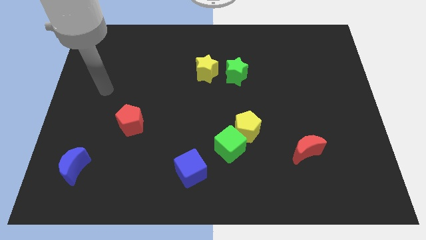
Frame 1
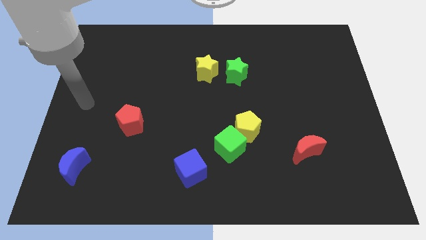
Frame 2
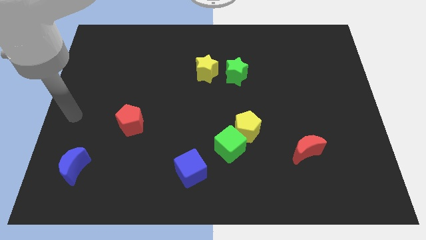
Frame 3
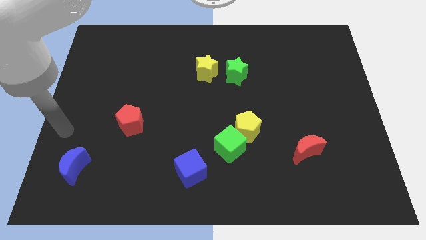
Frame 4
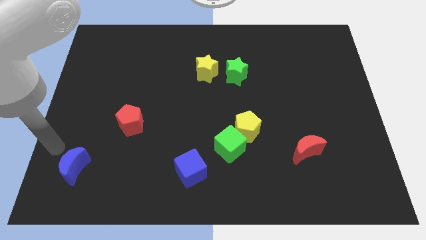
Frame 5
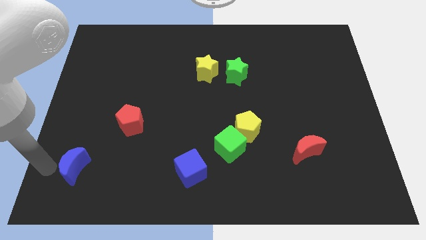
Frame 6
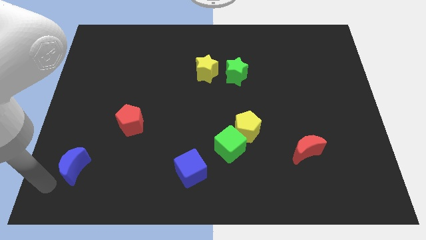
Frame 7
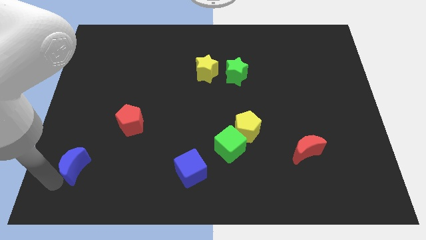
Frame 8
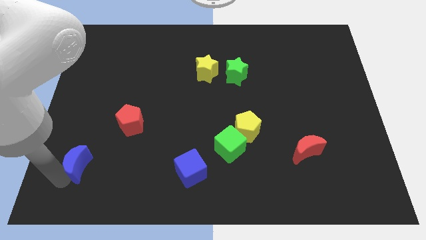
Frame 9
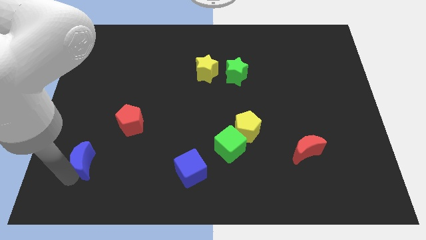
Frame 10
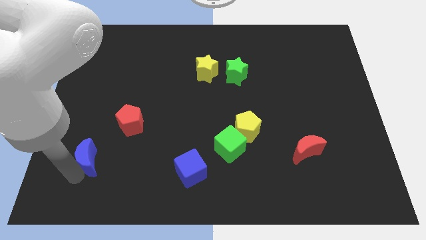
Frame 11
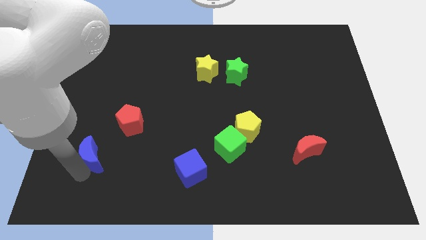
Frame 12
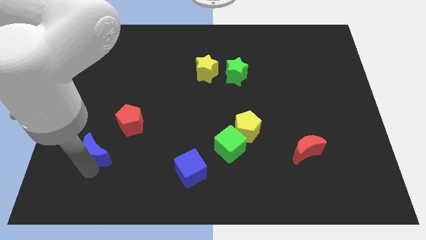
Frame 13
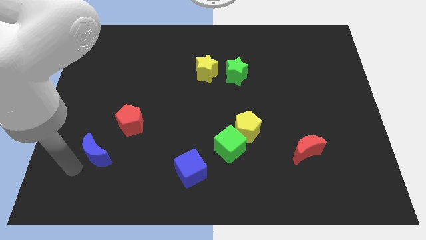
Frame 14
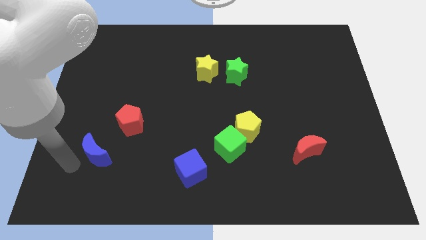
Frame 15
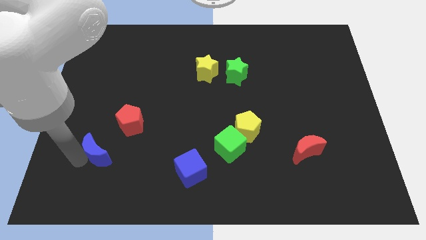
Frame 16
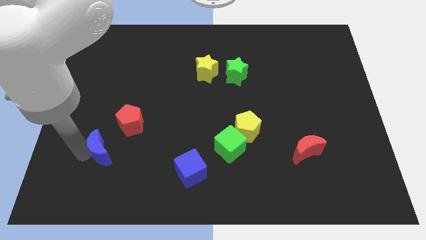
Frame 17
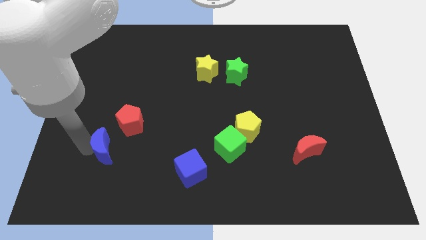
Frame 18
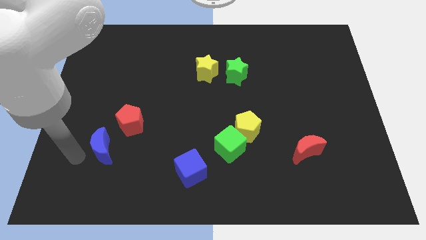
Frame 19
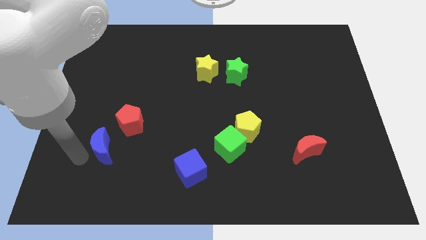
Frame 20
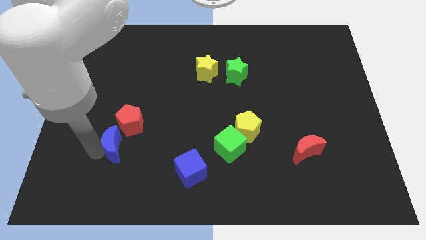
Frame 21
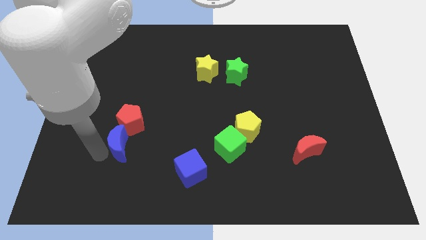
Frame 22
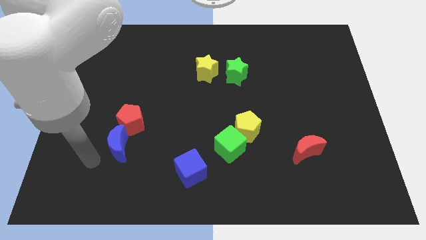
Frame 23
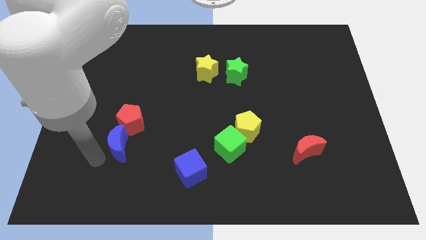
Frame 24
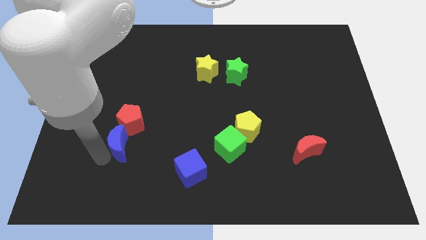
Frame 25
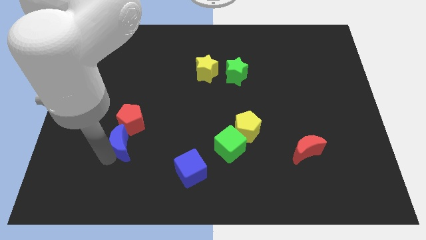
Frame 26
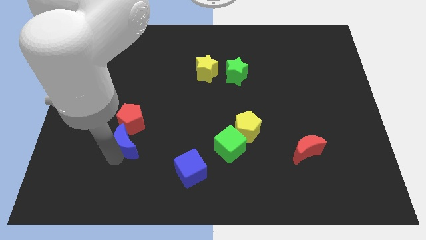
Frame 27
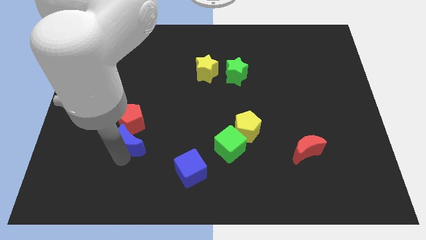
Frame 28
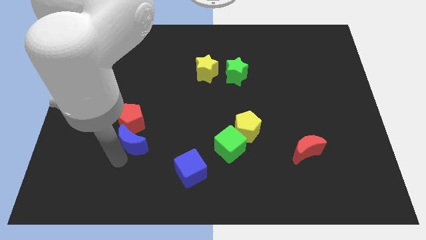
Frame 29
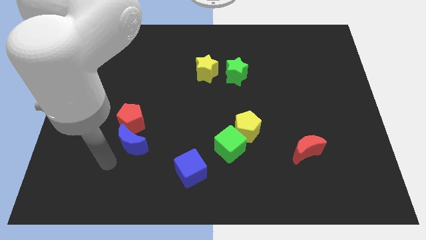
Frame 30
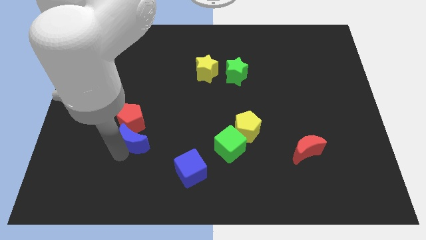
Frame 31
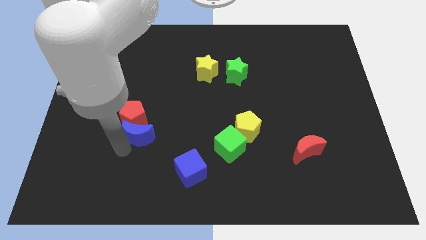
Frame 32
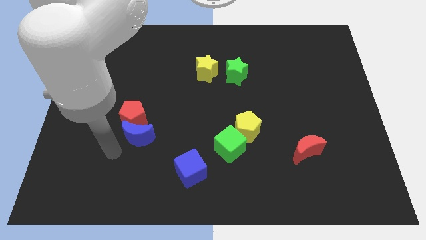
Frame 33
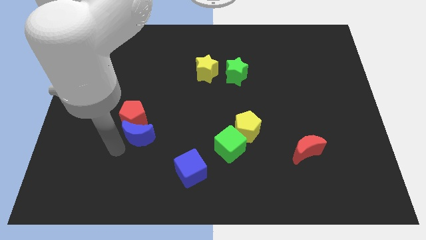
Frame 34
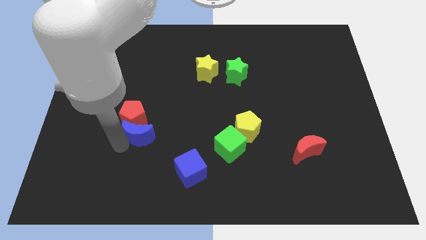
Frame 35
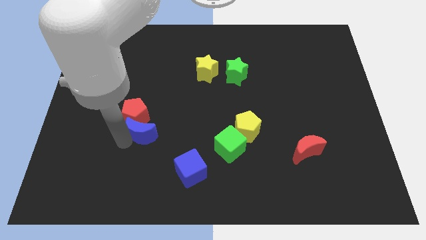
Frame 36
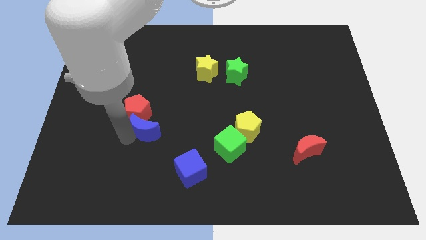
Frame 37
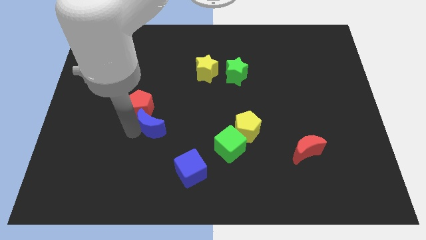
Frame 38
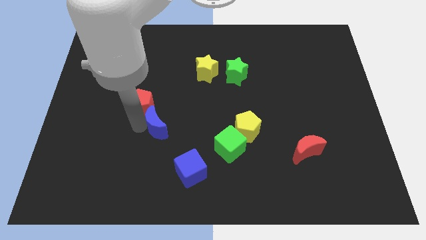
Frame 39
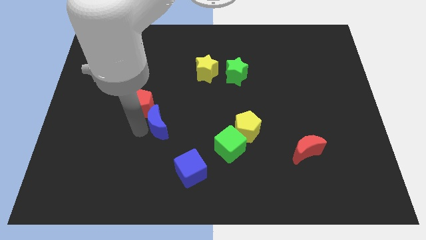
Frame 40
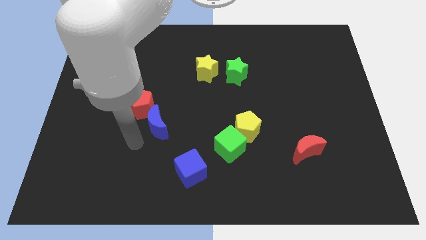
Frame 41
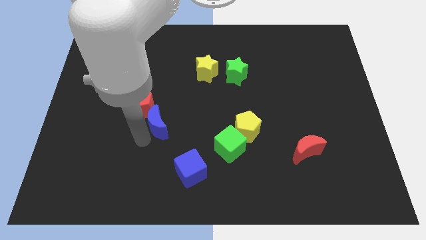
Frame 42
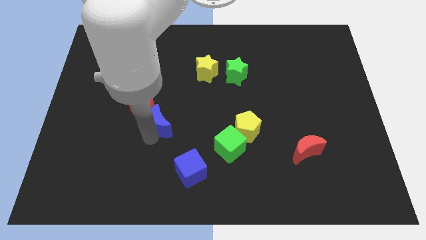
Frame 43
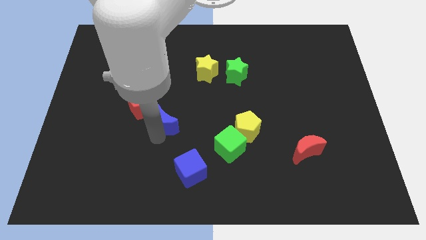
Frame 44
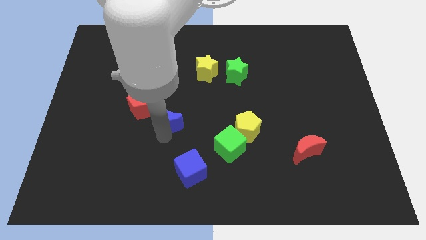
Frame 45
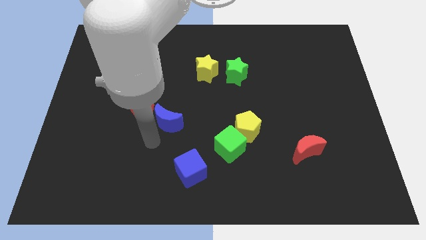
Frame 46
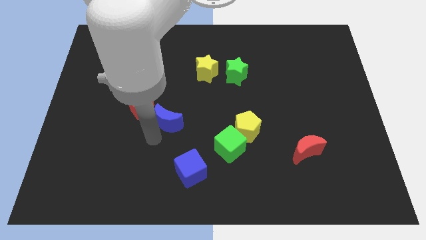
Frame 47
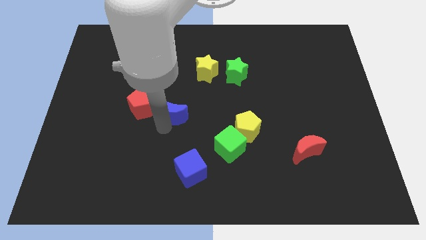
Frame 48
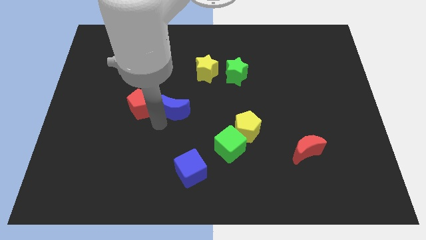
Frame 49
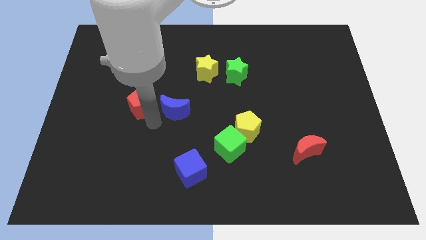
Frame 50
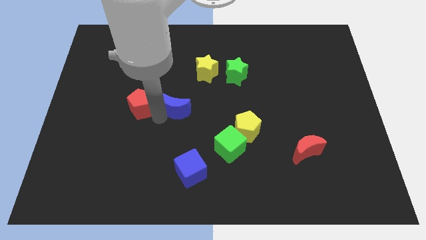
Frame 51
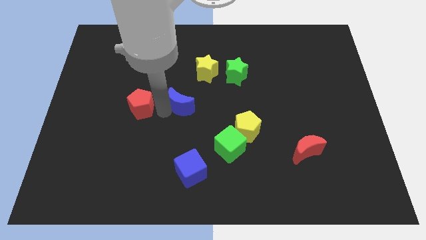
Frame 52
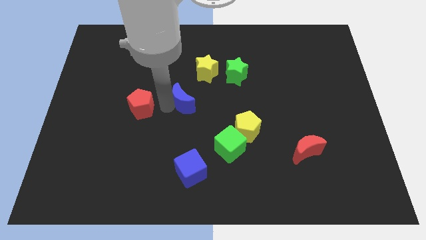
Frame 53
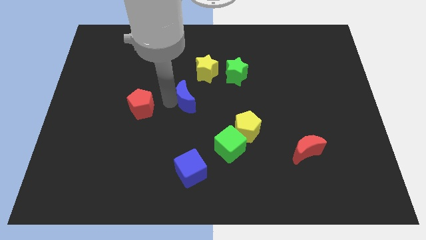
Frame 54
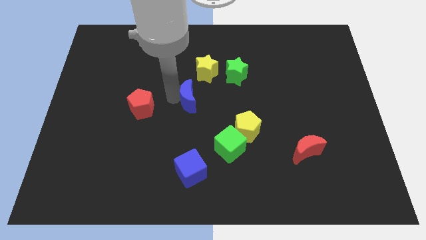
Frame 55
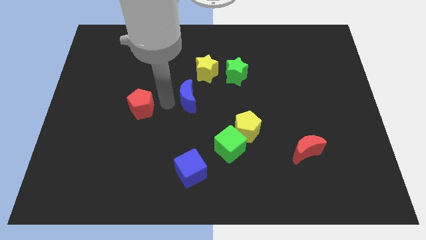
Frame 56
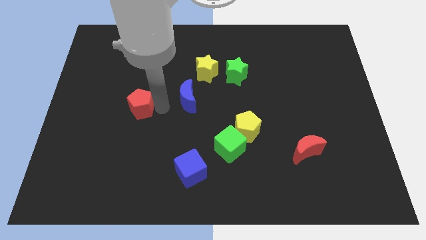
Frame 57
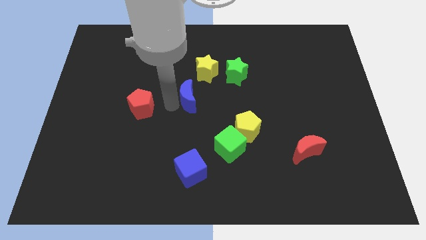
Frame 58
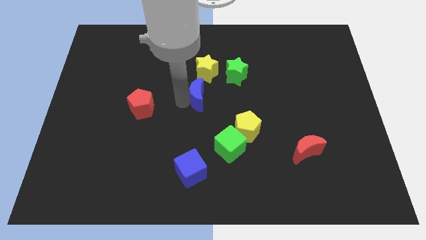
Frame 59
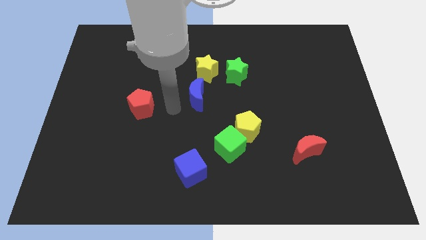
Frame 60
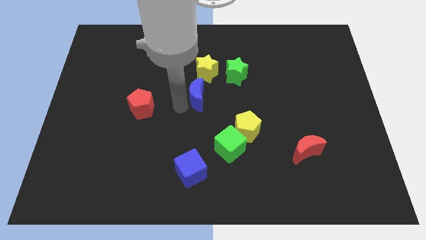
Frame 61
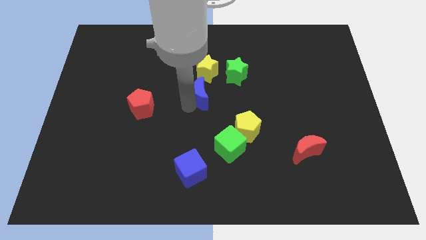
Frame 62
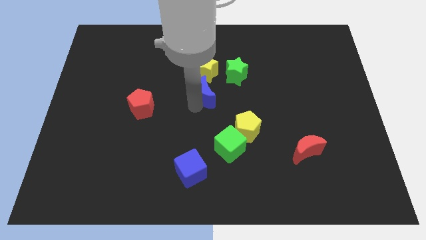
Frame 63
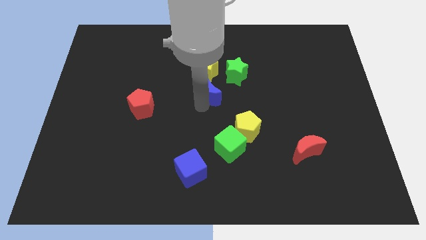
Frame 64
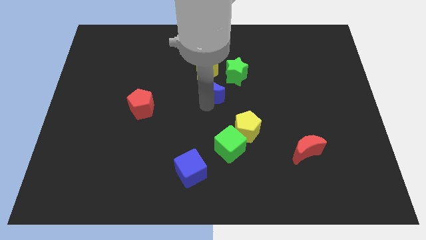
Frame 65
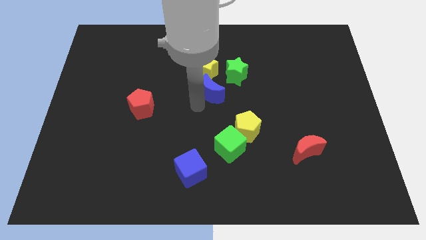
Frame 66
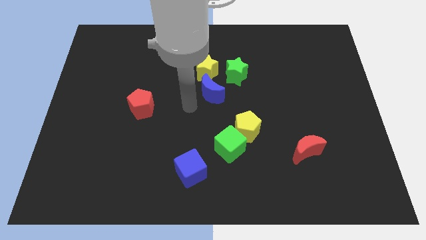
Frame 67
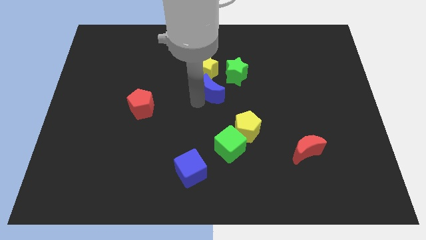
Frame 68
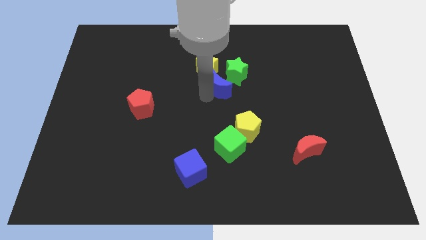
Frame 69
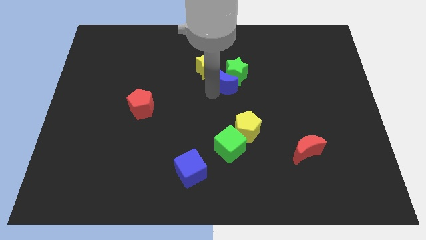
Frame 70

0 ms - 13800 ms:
put the blue moon close to the green star

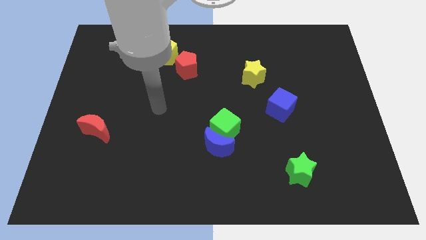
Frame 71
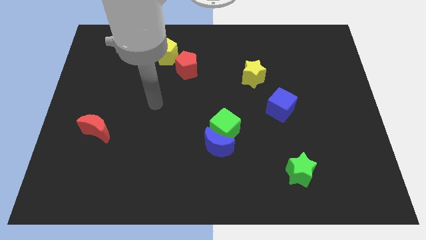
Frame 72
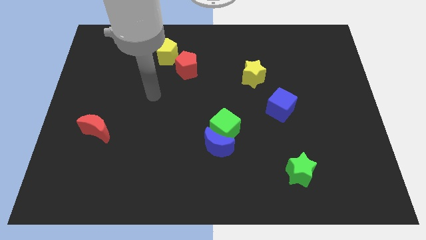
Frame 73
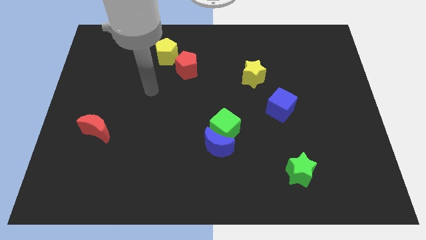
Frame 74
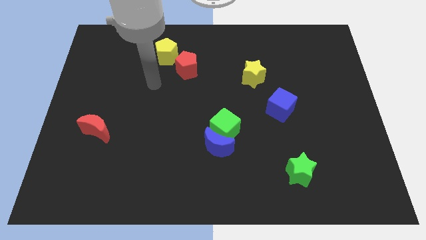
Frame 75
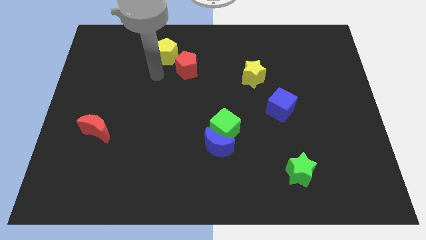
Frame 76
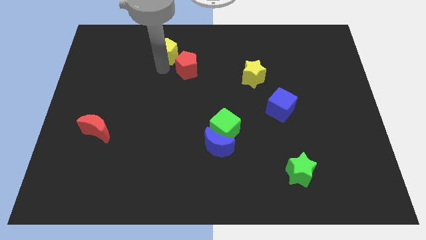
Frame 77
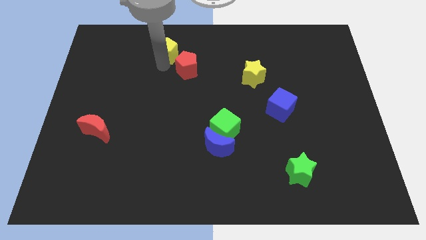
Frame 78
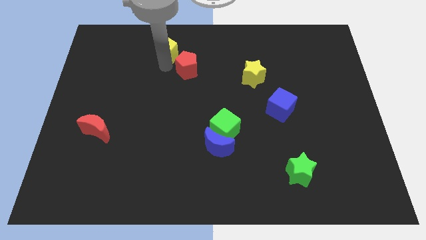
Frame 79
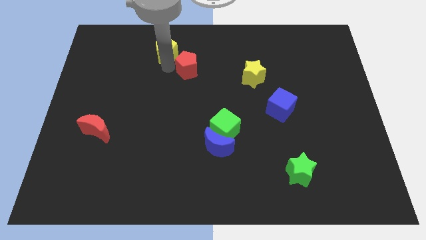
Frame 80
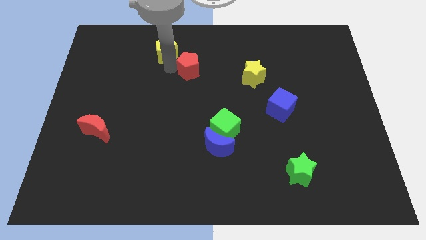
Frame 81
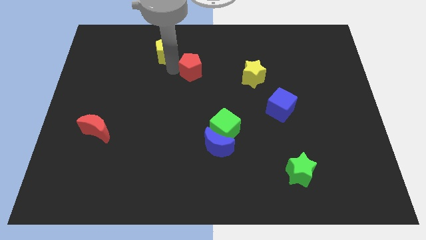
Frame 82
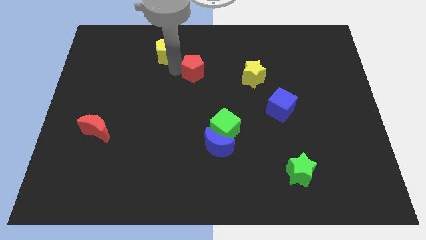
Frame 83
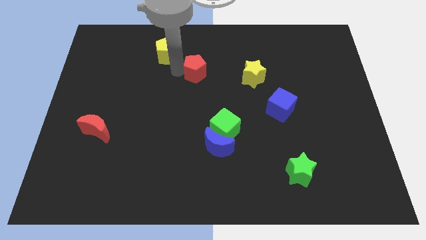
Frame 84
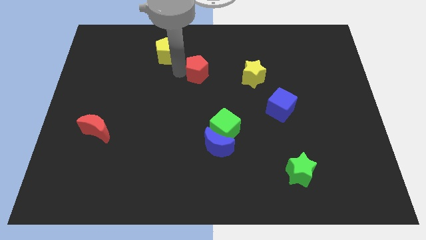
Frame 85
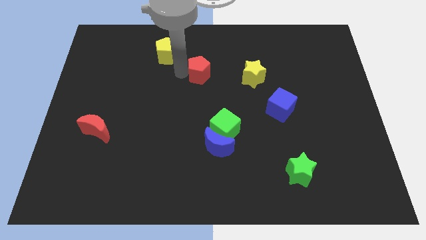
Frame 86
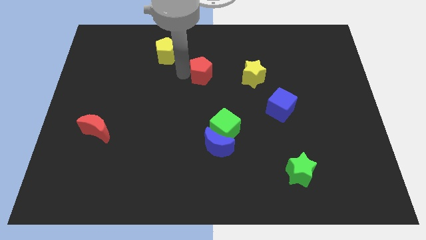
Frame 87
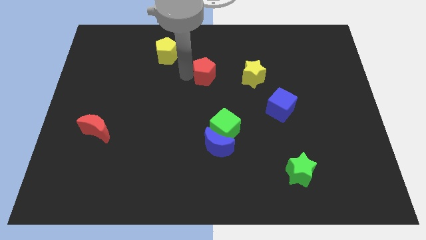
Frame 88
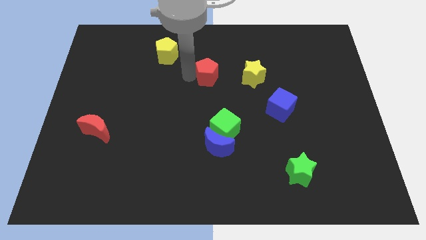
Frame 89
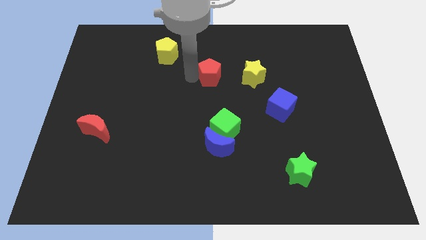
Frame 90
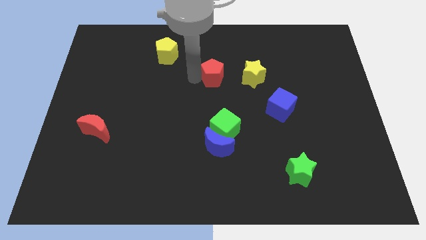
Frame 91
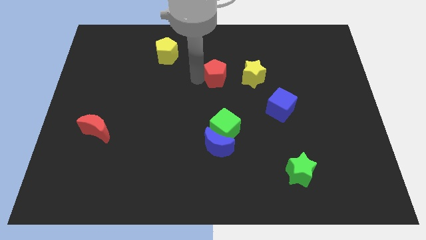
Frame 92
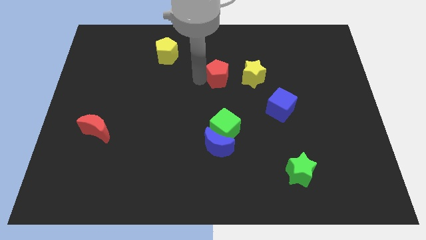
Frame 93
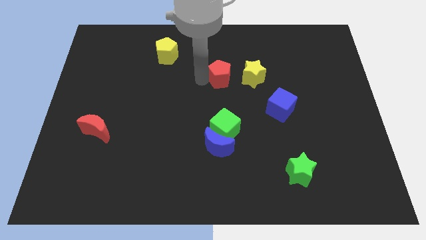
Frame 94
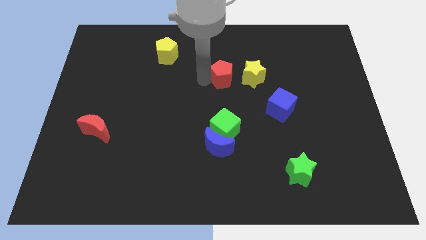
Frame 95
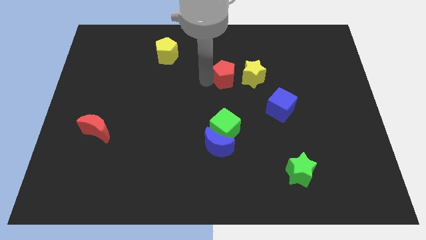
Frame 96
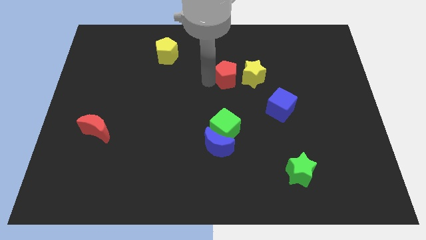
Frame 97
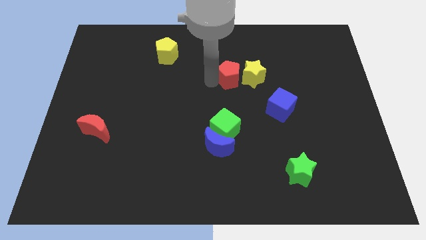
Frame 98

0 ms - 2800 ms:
push the red pentagon to the yellow star
